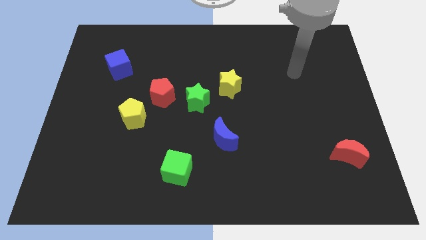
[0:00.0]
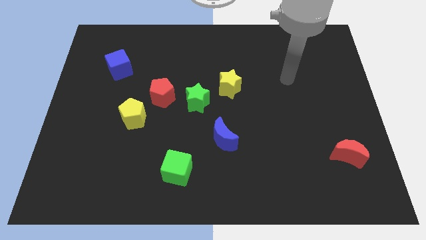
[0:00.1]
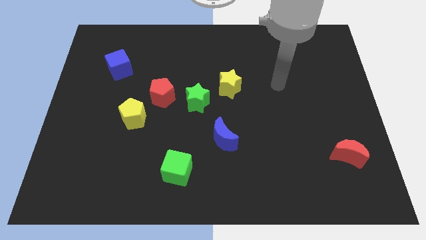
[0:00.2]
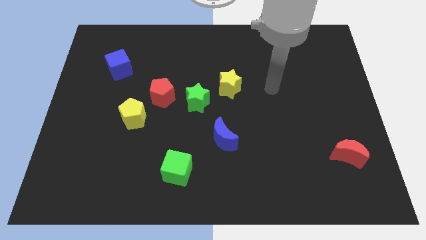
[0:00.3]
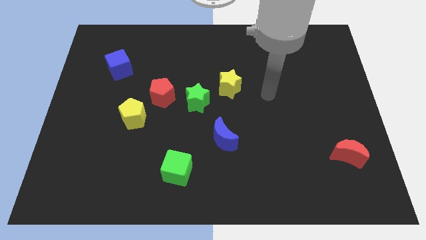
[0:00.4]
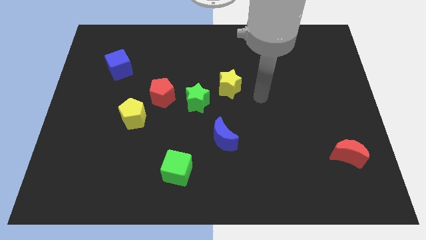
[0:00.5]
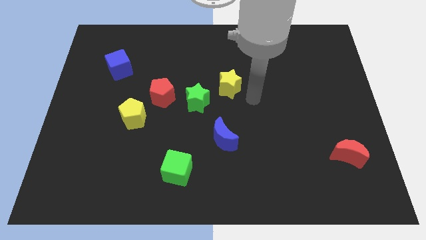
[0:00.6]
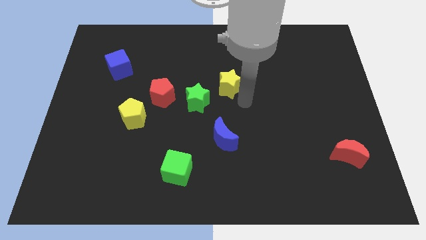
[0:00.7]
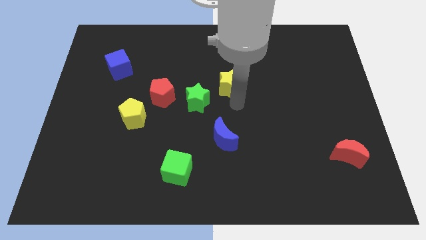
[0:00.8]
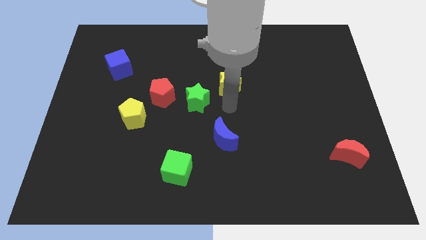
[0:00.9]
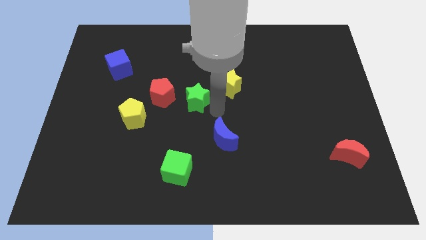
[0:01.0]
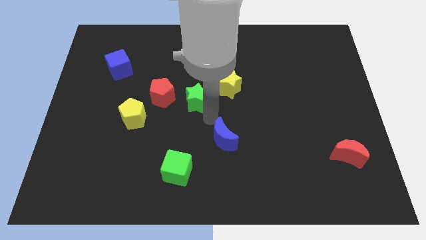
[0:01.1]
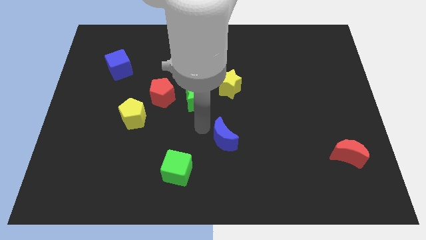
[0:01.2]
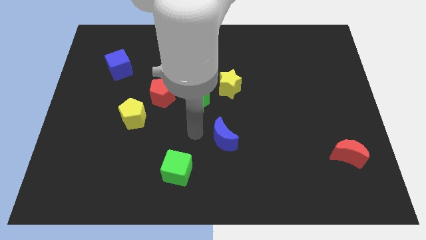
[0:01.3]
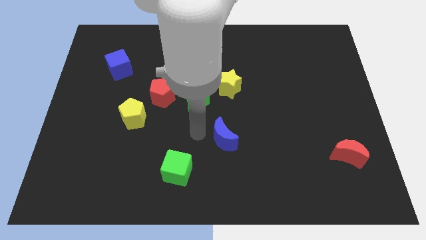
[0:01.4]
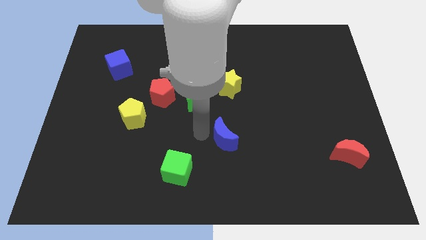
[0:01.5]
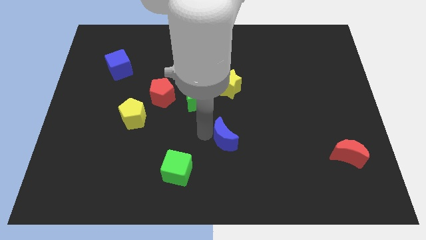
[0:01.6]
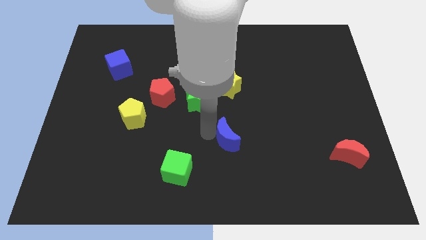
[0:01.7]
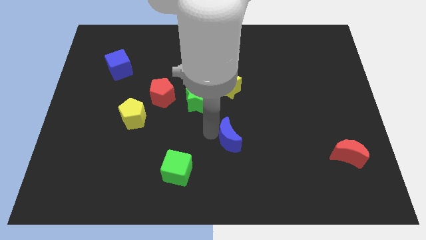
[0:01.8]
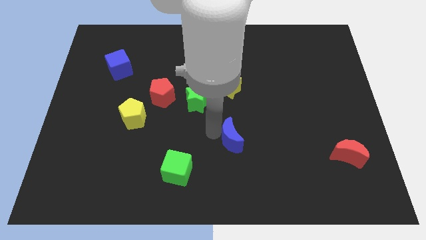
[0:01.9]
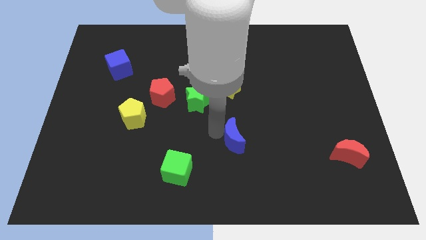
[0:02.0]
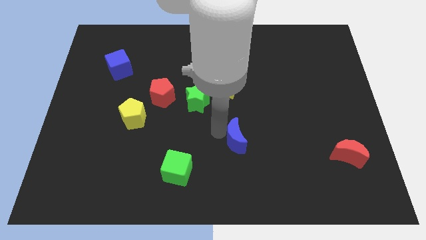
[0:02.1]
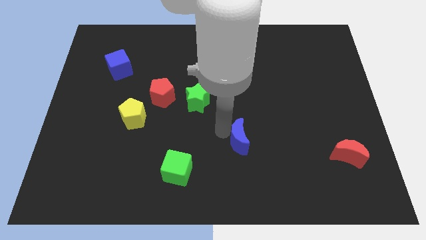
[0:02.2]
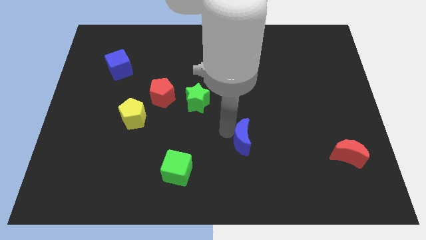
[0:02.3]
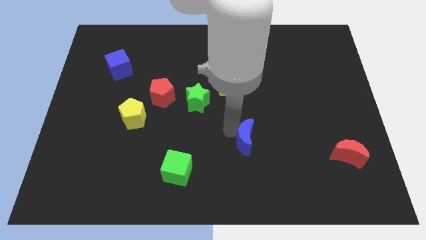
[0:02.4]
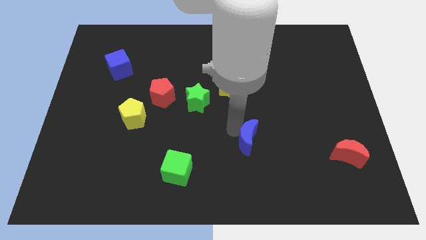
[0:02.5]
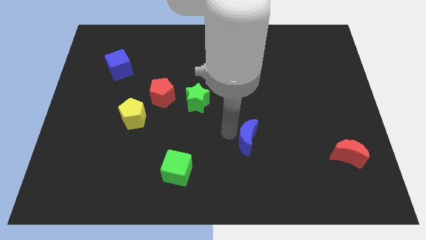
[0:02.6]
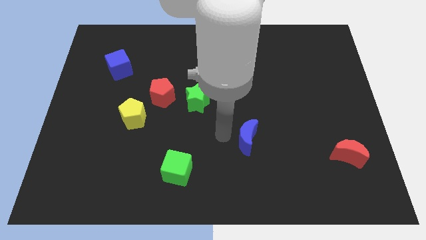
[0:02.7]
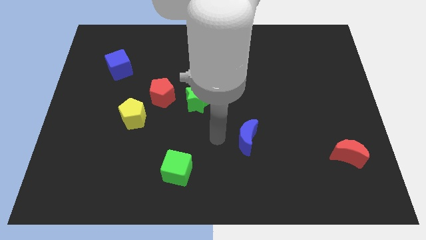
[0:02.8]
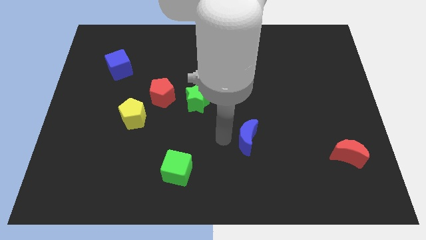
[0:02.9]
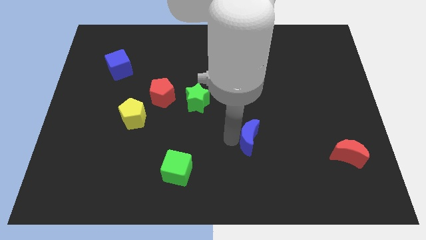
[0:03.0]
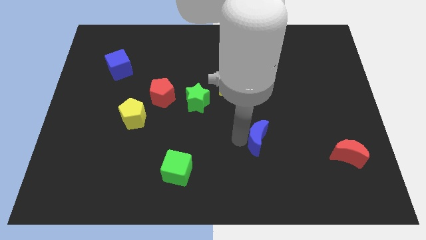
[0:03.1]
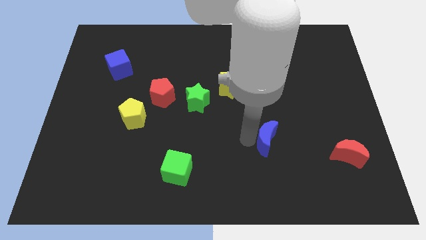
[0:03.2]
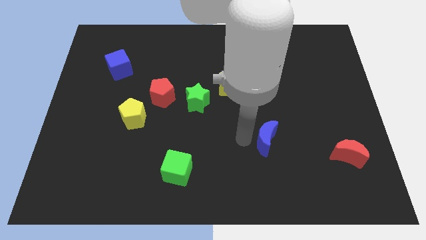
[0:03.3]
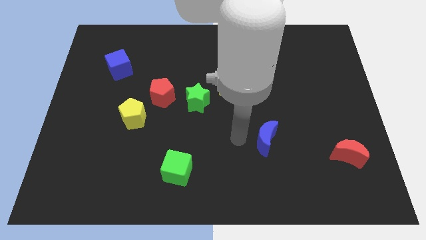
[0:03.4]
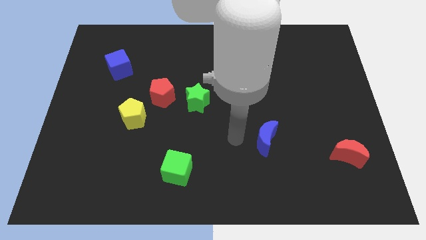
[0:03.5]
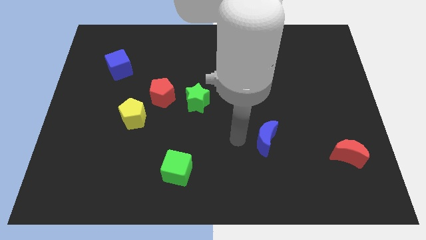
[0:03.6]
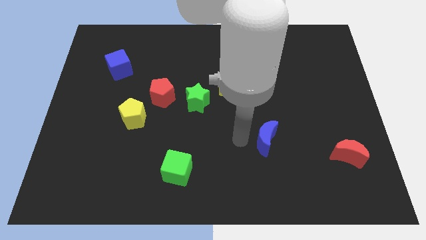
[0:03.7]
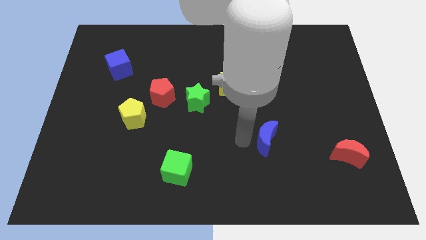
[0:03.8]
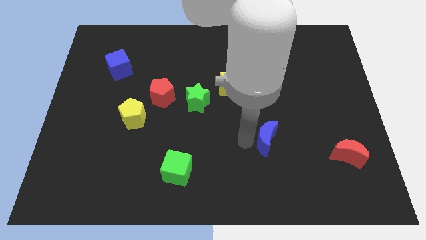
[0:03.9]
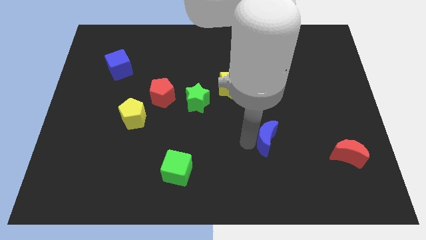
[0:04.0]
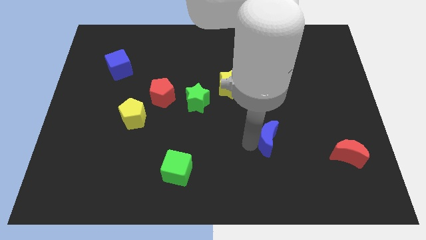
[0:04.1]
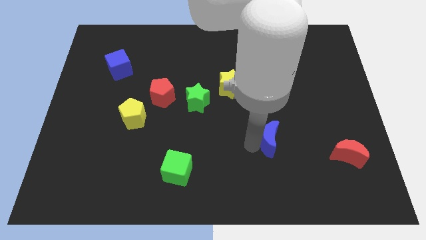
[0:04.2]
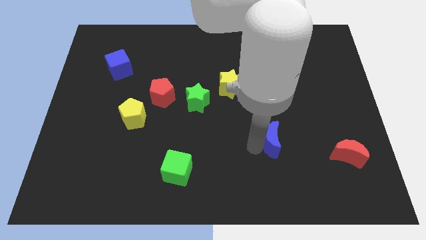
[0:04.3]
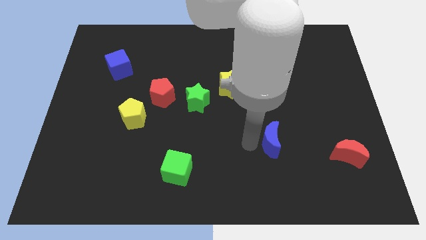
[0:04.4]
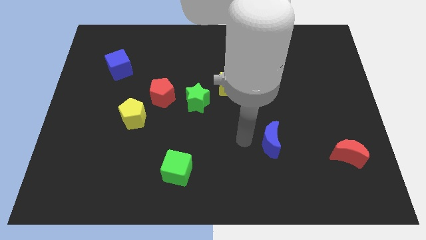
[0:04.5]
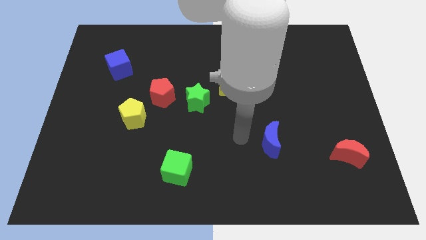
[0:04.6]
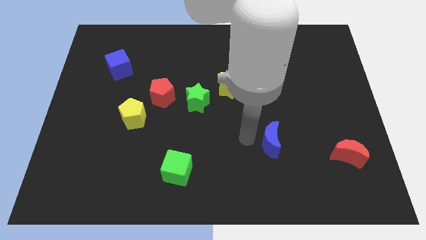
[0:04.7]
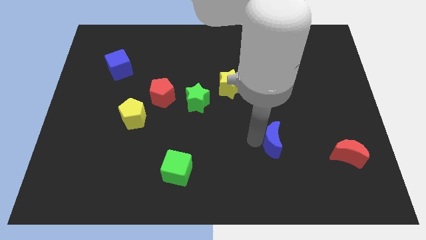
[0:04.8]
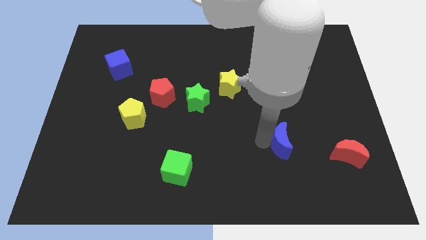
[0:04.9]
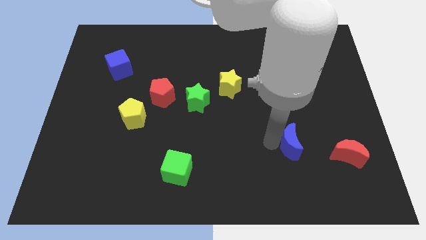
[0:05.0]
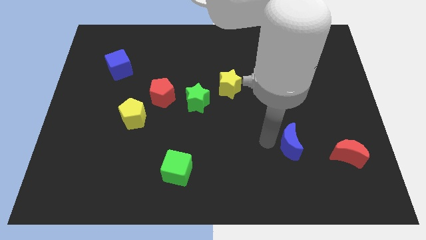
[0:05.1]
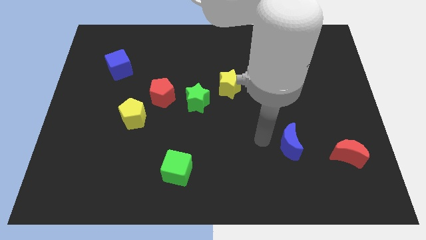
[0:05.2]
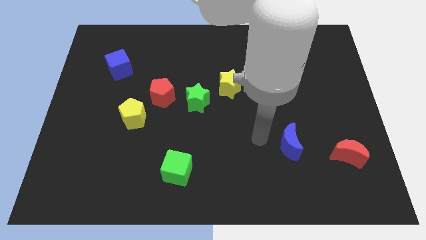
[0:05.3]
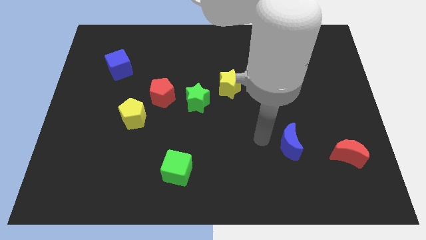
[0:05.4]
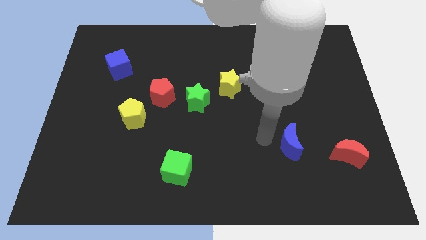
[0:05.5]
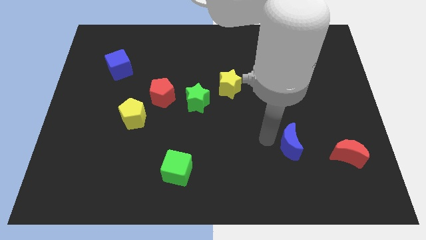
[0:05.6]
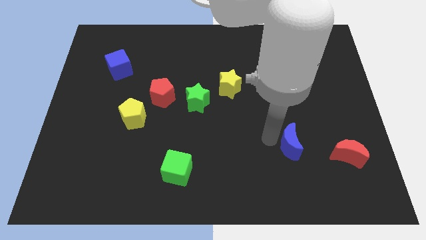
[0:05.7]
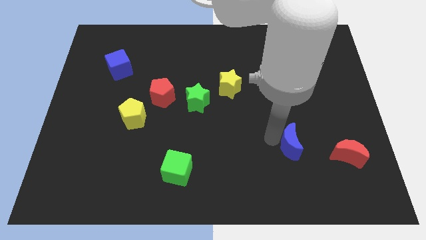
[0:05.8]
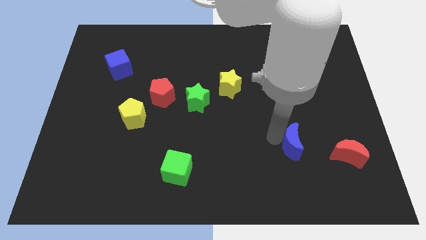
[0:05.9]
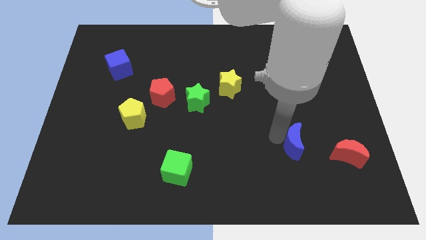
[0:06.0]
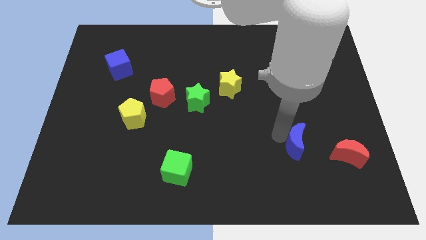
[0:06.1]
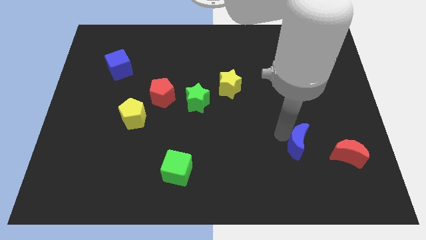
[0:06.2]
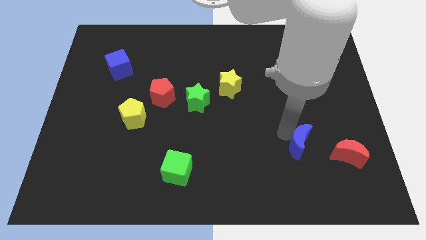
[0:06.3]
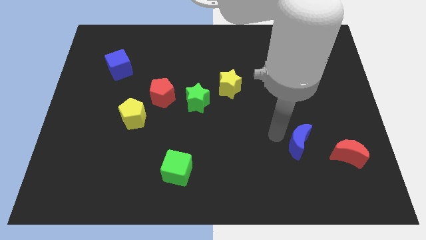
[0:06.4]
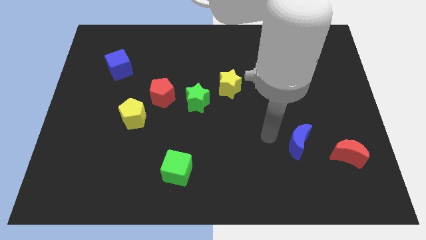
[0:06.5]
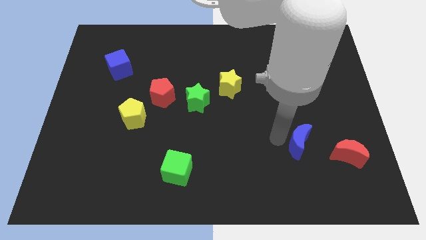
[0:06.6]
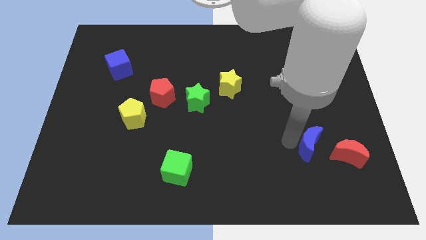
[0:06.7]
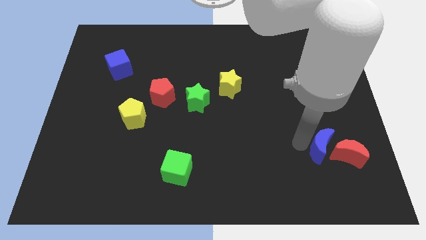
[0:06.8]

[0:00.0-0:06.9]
push the blue moon close to the red moon

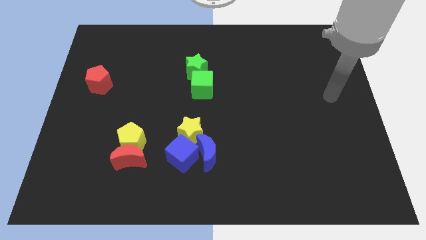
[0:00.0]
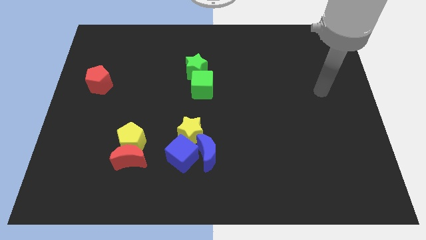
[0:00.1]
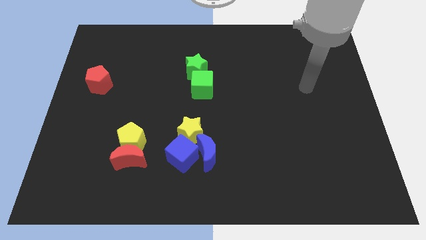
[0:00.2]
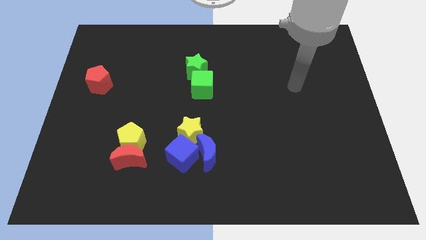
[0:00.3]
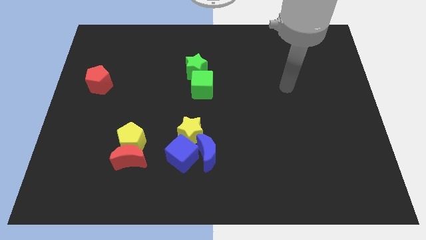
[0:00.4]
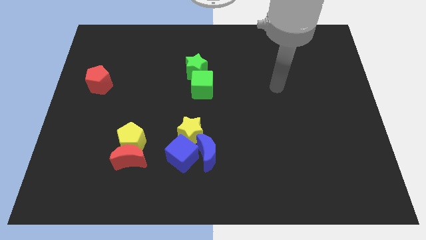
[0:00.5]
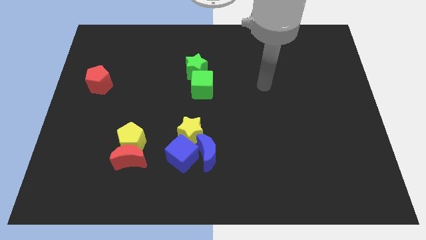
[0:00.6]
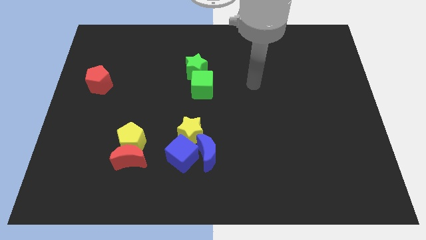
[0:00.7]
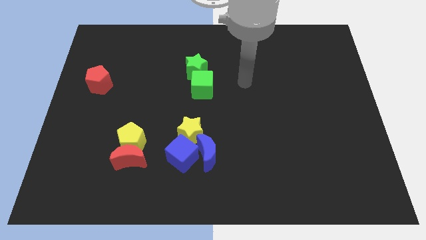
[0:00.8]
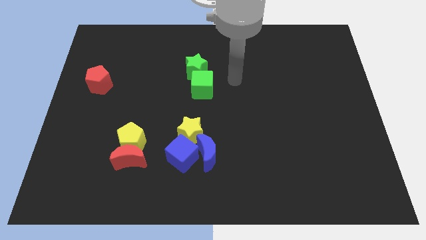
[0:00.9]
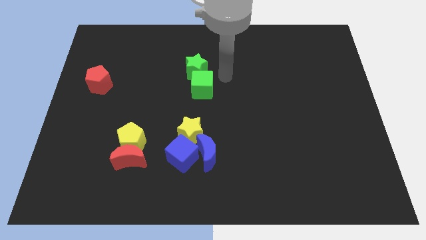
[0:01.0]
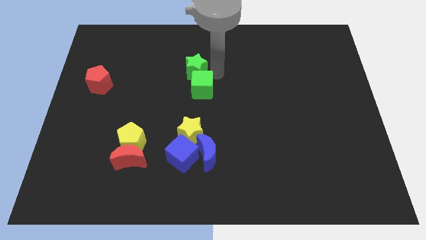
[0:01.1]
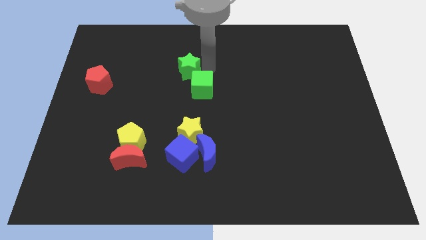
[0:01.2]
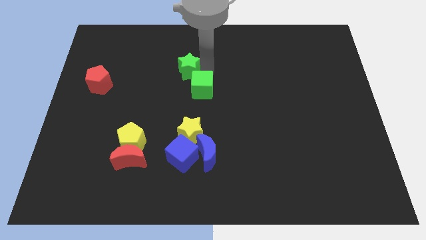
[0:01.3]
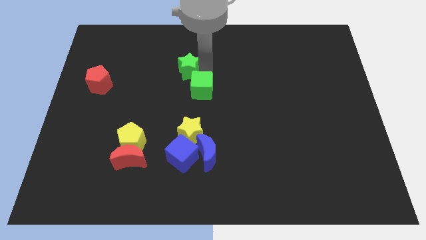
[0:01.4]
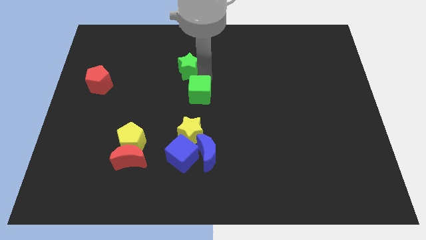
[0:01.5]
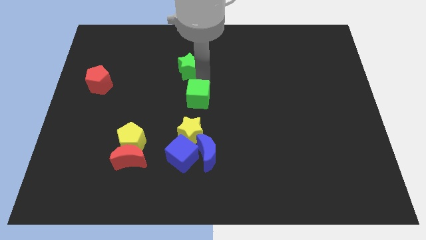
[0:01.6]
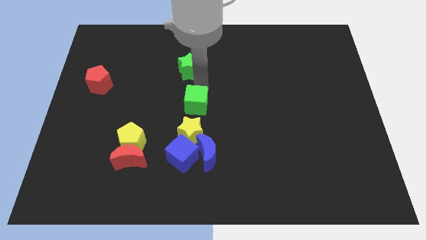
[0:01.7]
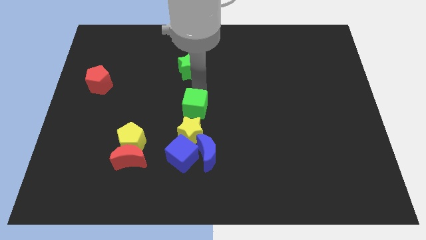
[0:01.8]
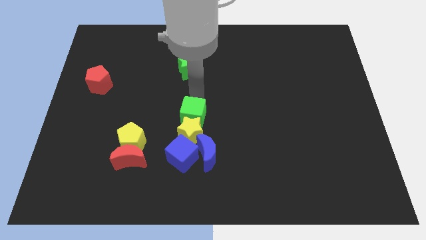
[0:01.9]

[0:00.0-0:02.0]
slide the green cube to the yellow star
